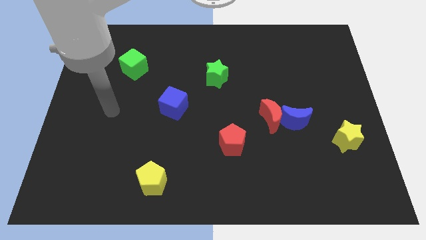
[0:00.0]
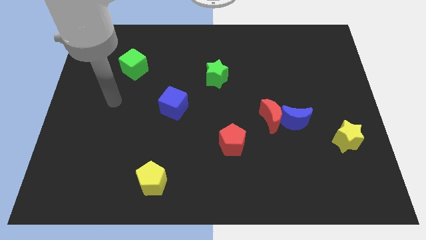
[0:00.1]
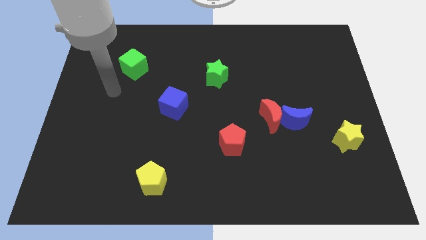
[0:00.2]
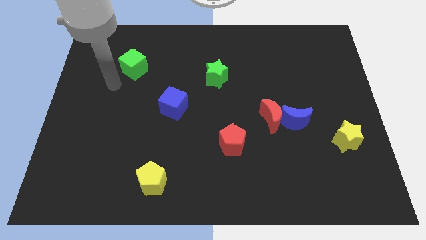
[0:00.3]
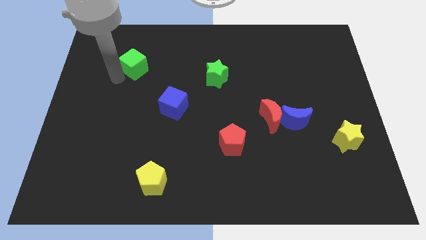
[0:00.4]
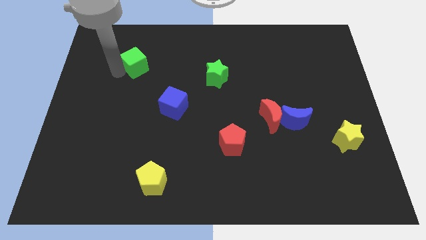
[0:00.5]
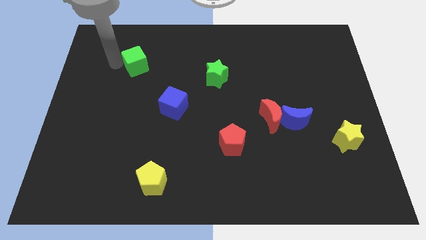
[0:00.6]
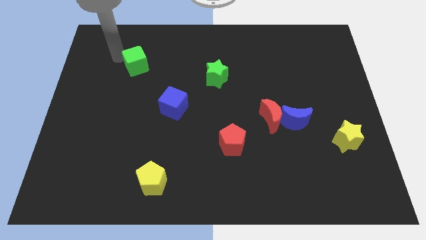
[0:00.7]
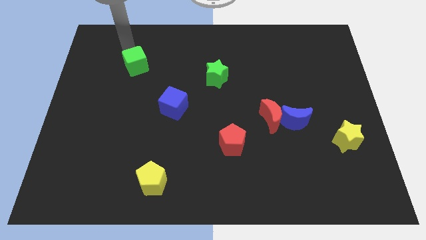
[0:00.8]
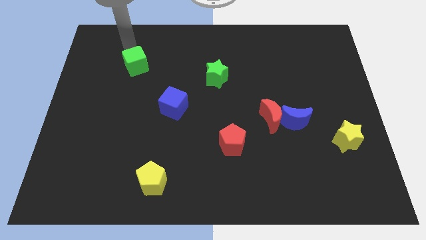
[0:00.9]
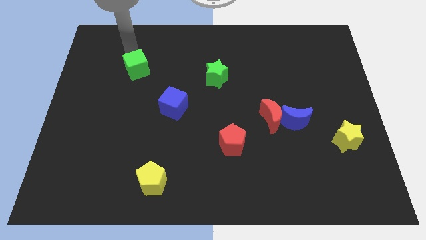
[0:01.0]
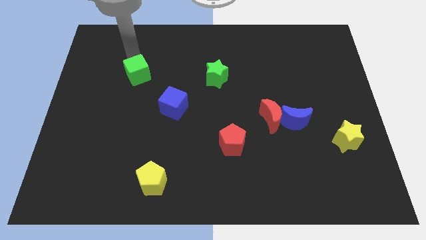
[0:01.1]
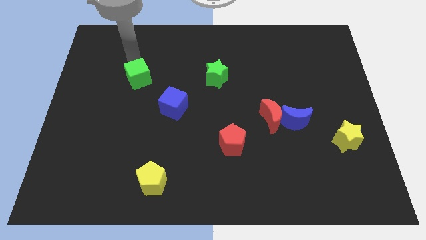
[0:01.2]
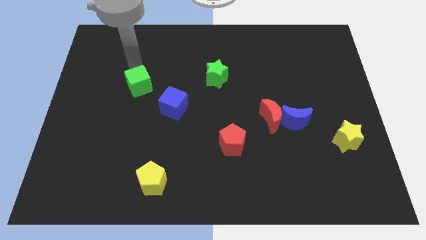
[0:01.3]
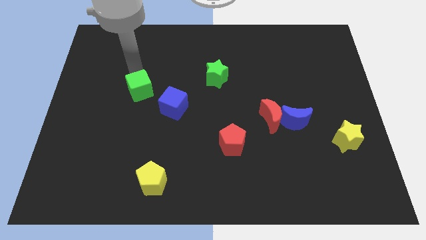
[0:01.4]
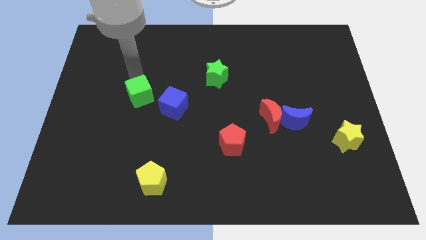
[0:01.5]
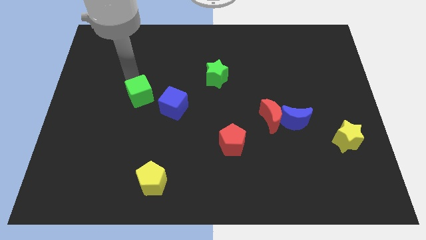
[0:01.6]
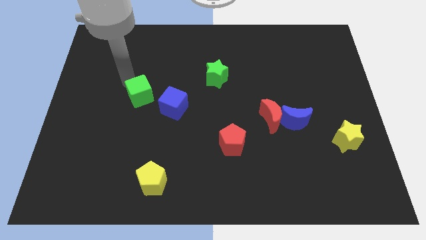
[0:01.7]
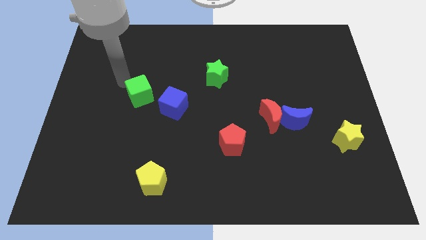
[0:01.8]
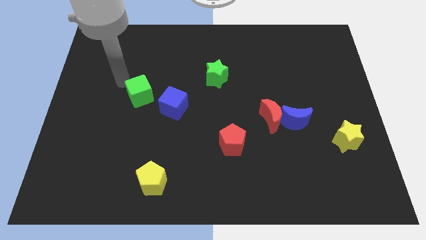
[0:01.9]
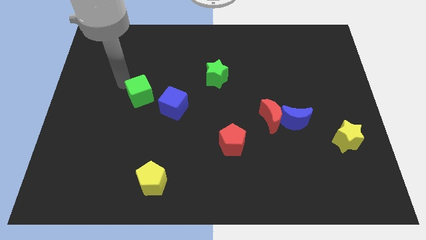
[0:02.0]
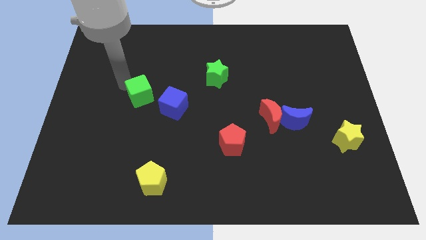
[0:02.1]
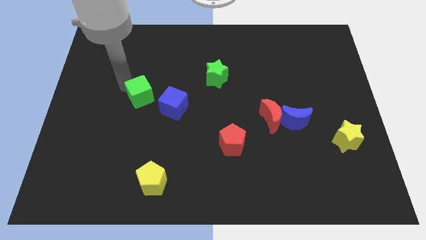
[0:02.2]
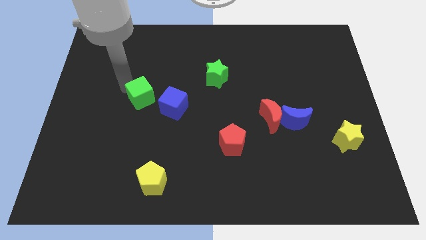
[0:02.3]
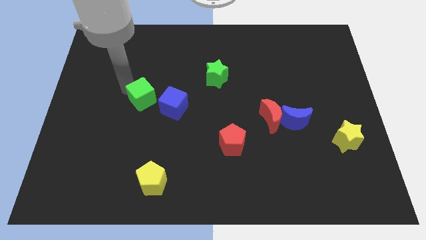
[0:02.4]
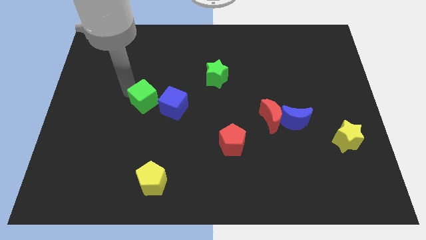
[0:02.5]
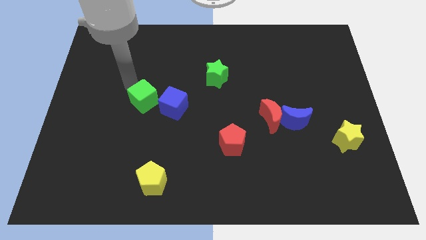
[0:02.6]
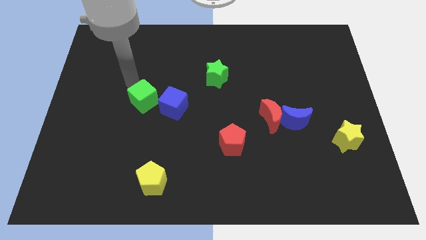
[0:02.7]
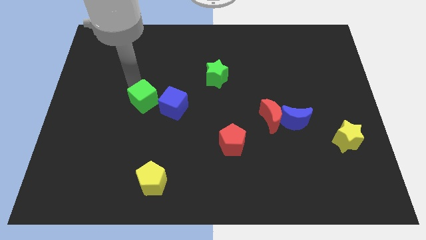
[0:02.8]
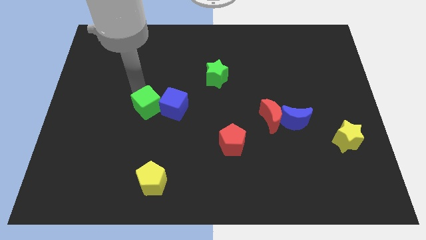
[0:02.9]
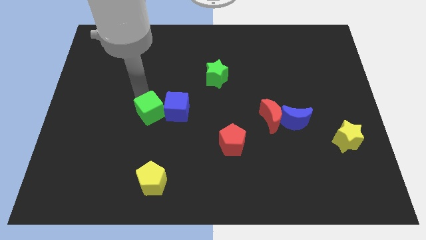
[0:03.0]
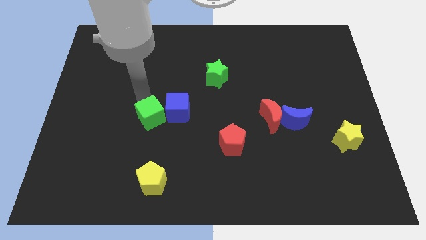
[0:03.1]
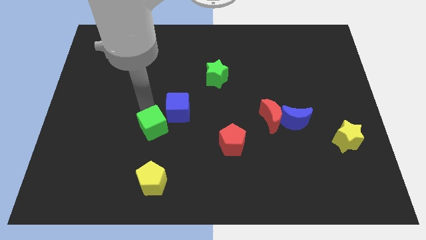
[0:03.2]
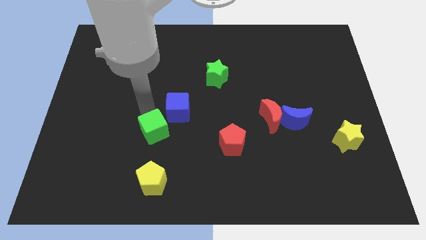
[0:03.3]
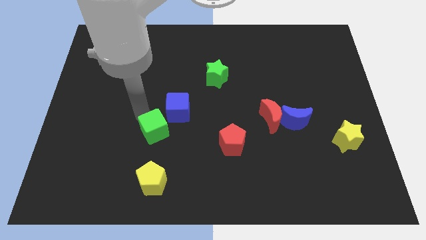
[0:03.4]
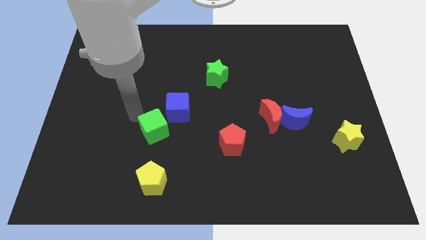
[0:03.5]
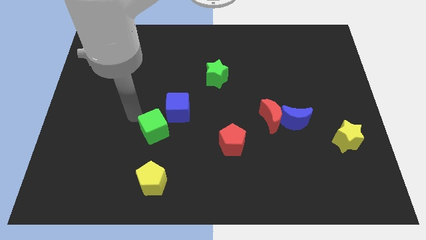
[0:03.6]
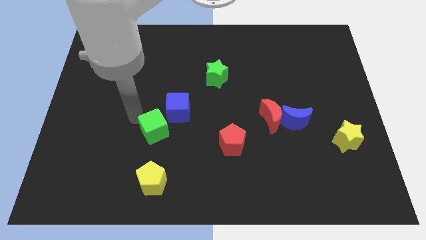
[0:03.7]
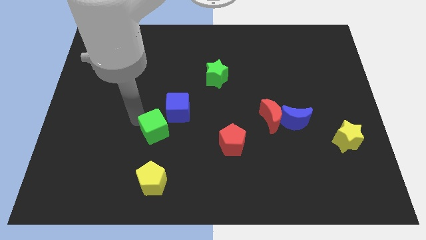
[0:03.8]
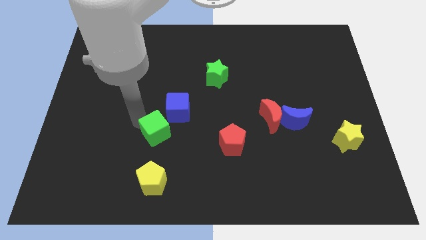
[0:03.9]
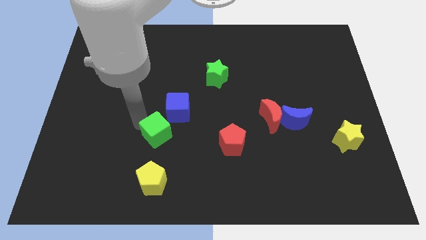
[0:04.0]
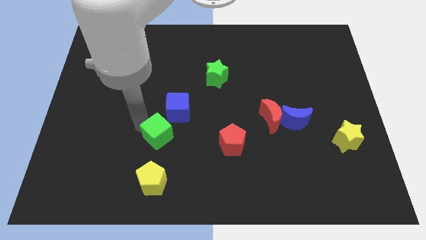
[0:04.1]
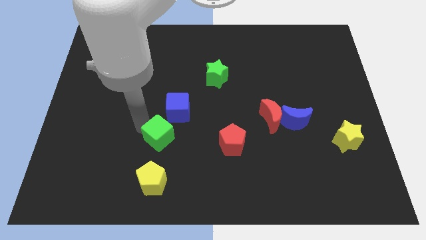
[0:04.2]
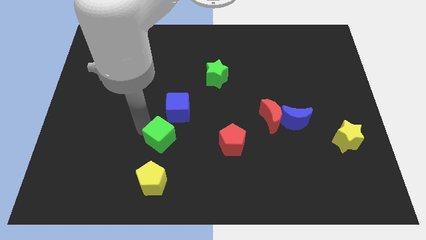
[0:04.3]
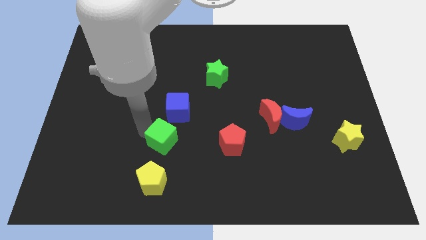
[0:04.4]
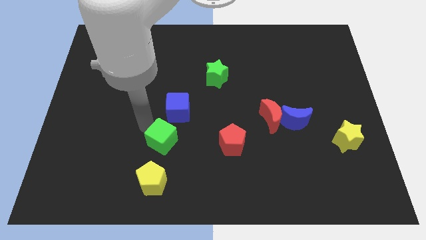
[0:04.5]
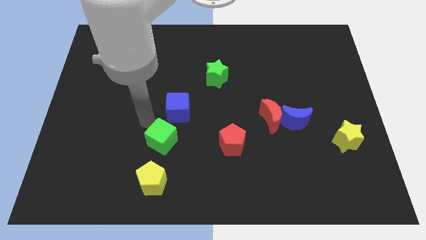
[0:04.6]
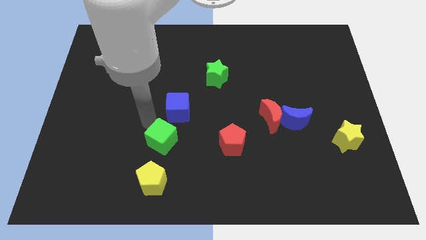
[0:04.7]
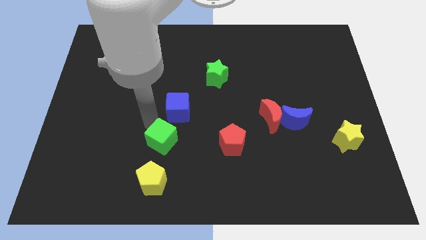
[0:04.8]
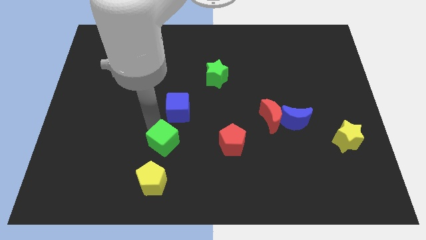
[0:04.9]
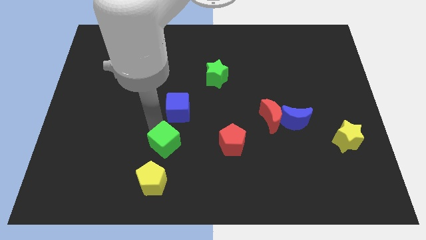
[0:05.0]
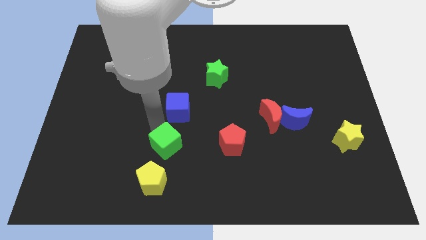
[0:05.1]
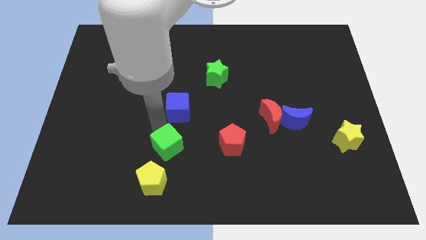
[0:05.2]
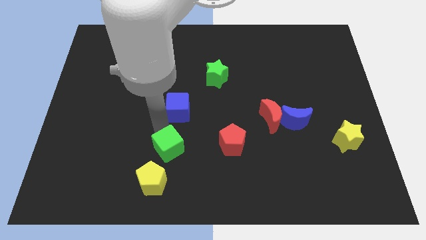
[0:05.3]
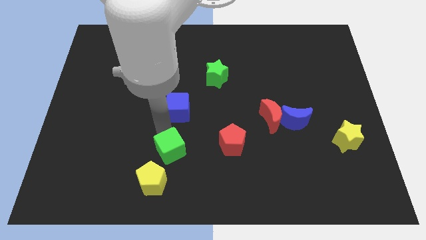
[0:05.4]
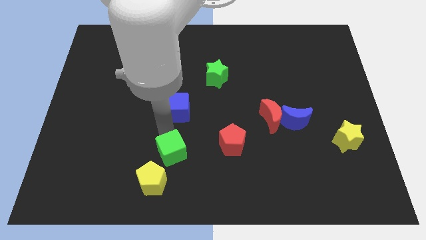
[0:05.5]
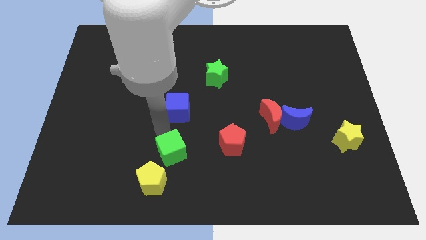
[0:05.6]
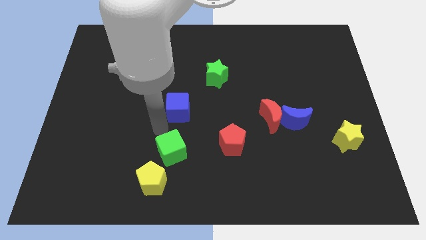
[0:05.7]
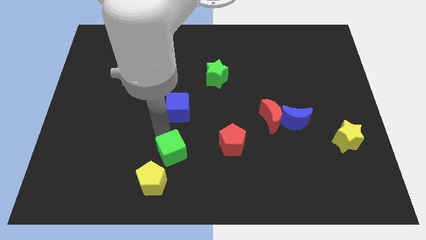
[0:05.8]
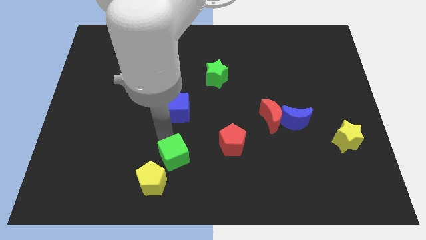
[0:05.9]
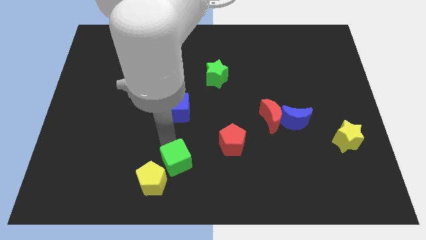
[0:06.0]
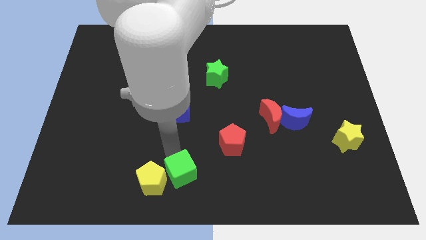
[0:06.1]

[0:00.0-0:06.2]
move the green cube to the bottom

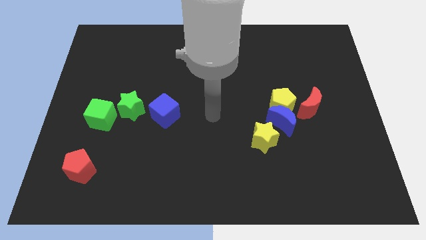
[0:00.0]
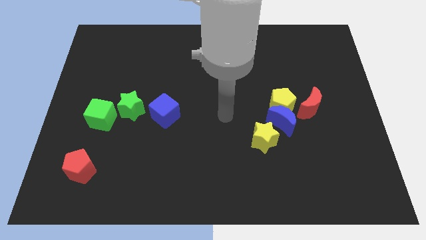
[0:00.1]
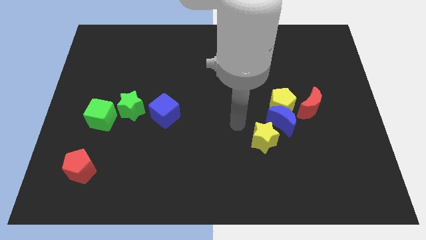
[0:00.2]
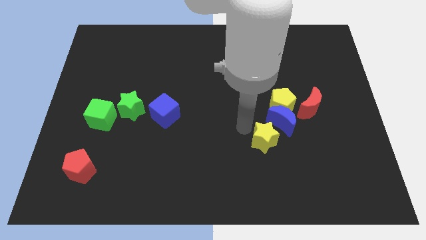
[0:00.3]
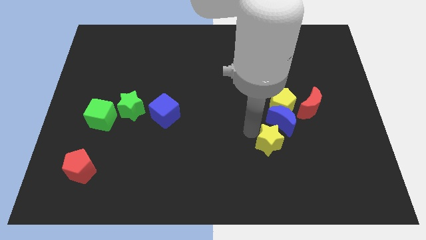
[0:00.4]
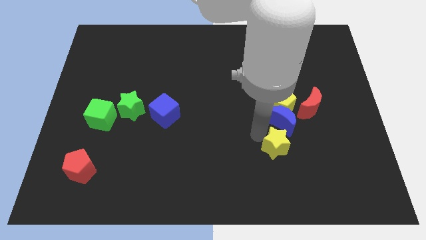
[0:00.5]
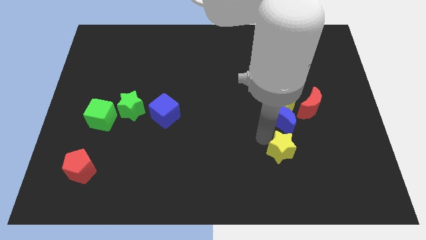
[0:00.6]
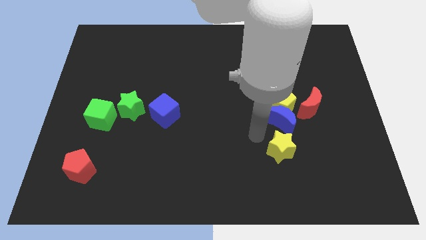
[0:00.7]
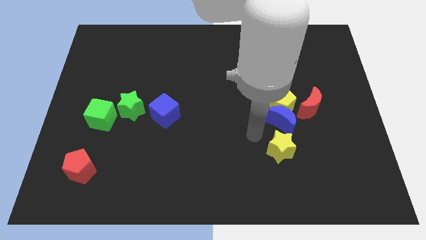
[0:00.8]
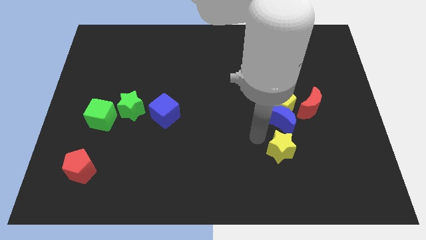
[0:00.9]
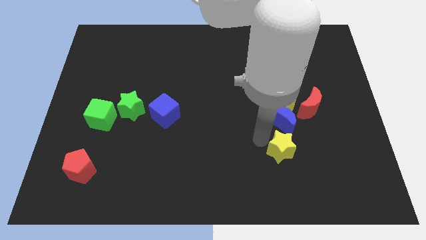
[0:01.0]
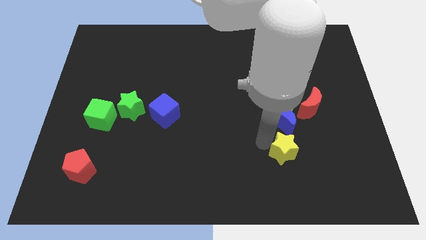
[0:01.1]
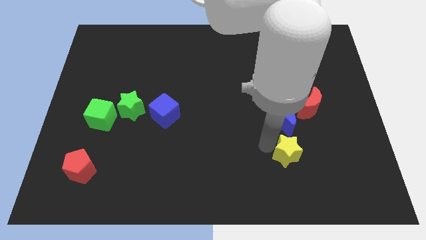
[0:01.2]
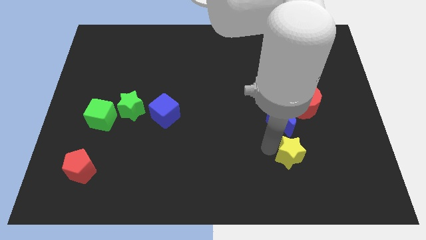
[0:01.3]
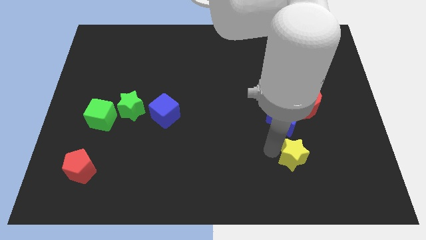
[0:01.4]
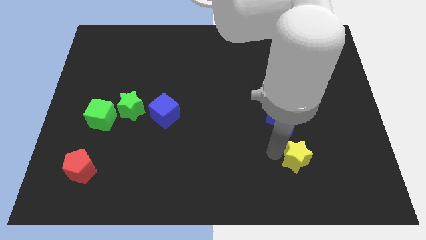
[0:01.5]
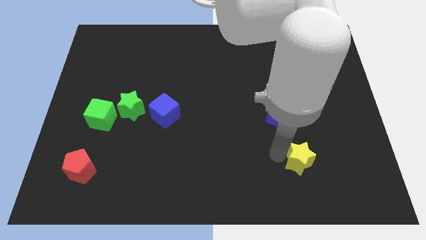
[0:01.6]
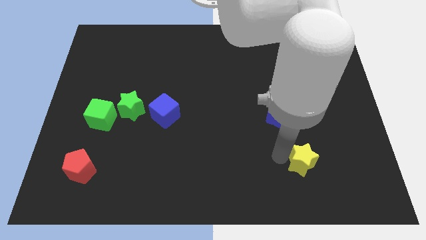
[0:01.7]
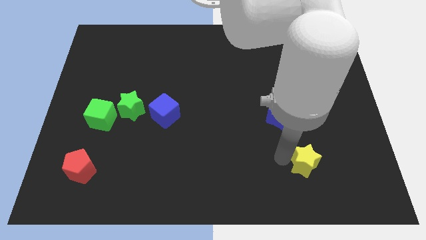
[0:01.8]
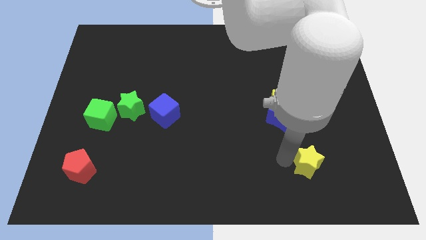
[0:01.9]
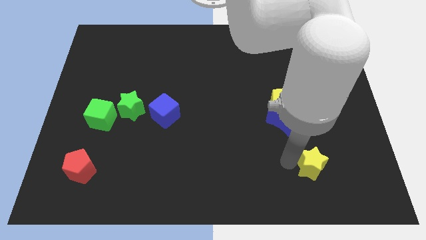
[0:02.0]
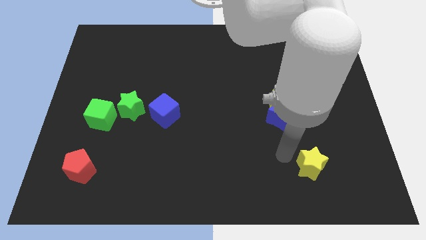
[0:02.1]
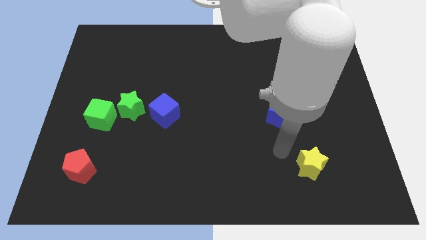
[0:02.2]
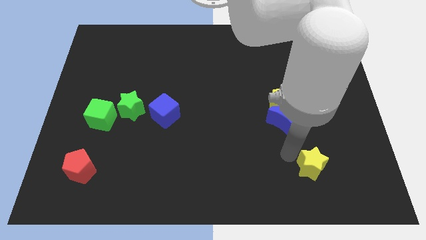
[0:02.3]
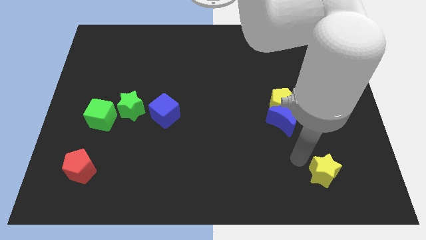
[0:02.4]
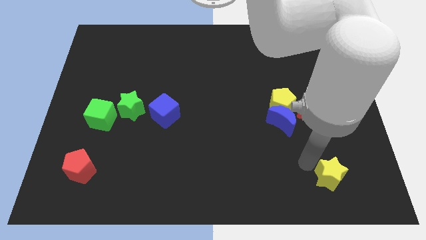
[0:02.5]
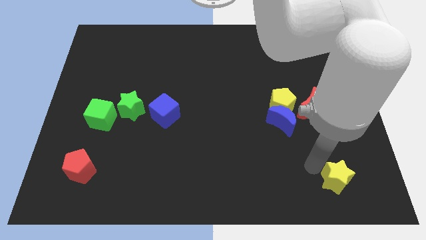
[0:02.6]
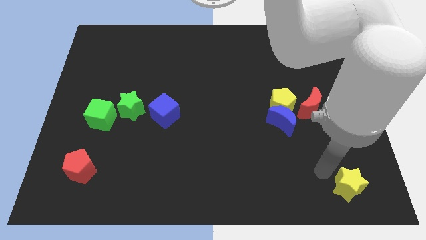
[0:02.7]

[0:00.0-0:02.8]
slide the yellow star to the bottom right of the board
